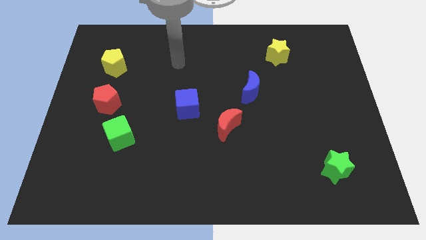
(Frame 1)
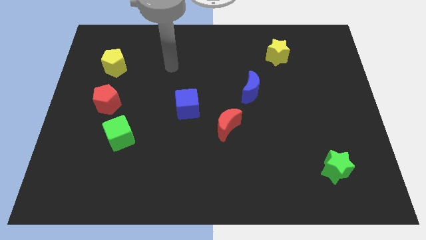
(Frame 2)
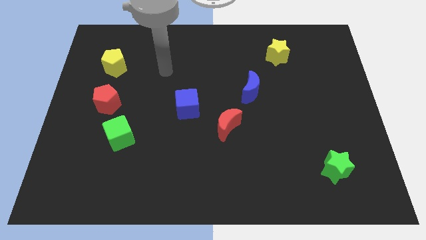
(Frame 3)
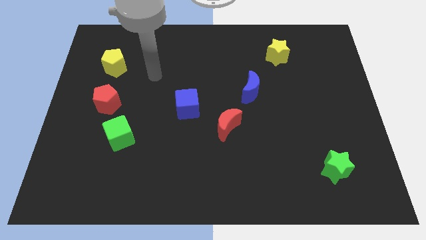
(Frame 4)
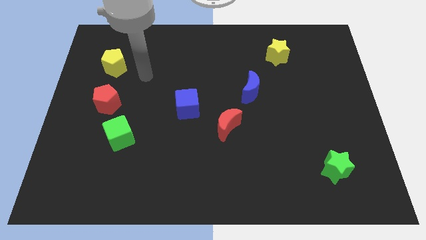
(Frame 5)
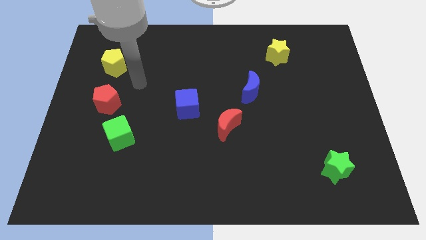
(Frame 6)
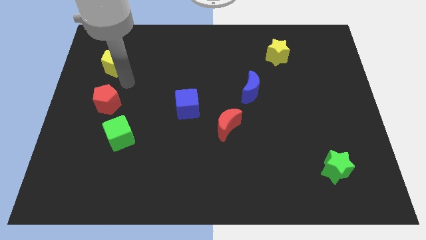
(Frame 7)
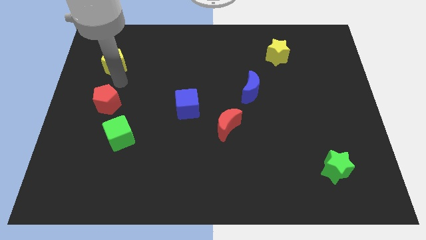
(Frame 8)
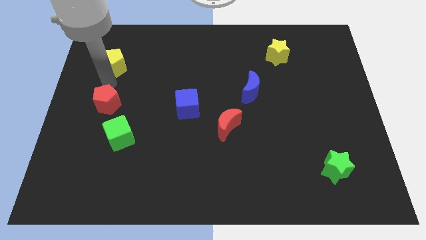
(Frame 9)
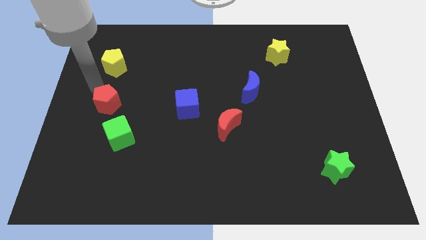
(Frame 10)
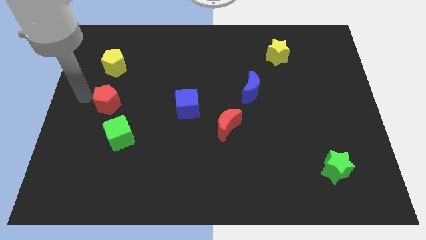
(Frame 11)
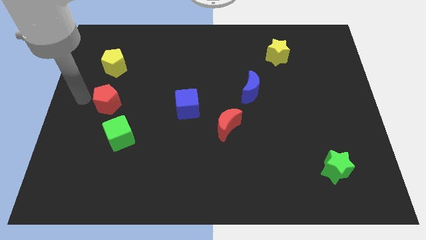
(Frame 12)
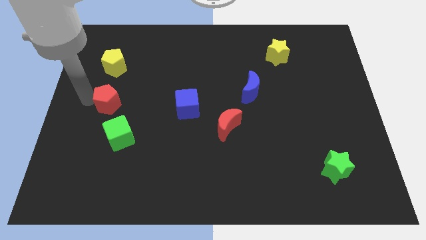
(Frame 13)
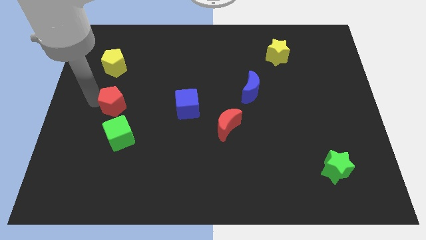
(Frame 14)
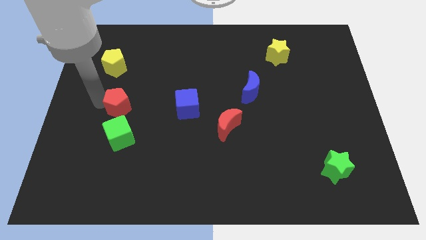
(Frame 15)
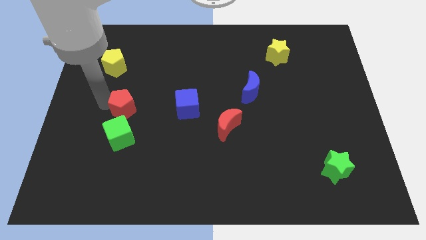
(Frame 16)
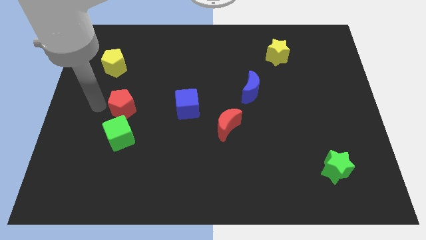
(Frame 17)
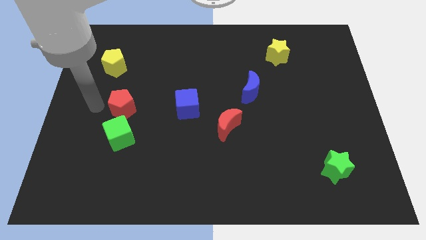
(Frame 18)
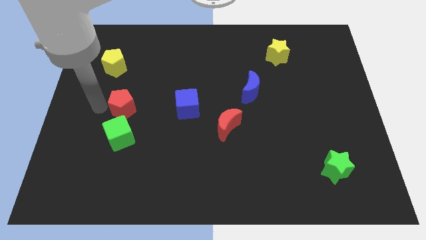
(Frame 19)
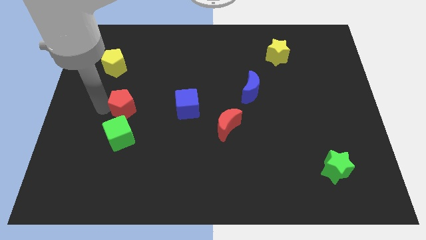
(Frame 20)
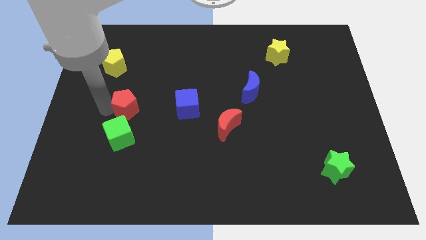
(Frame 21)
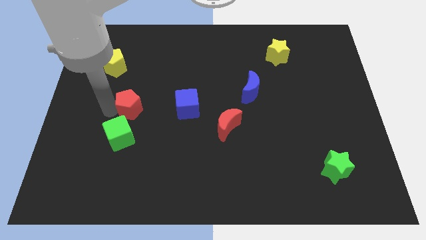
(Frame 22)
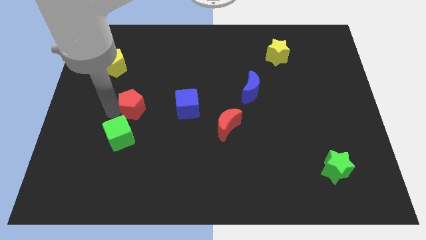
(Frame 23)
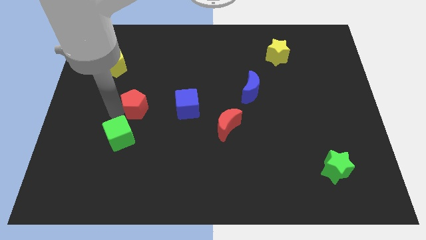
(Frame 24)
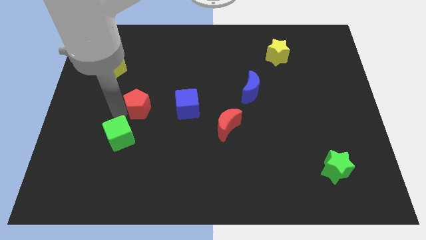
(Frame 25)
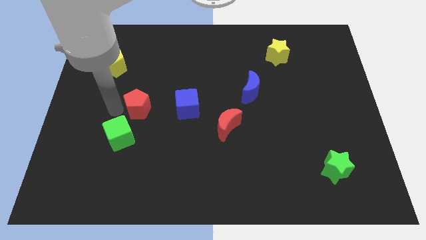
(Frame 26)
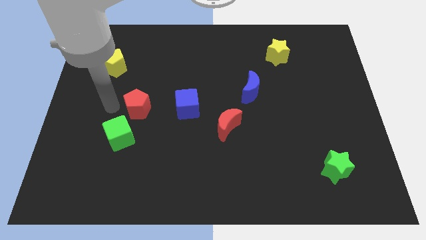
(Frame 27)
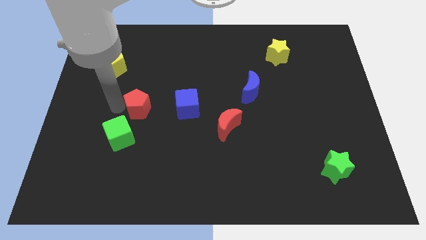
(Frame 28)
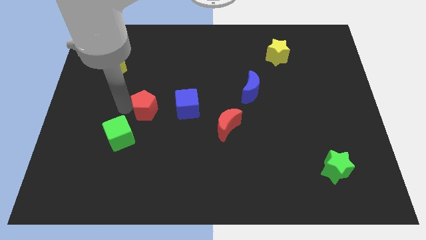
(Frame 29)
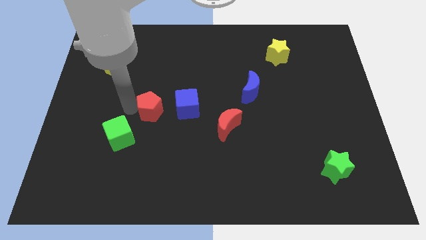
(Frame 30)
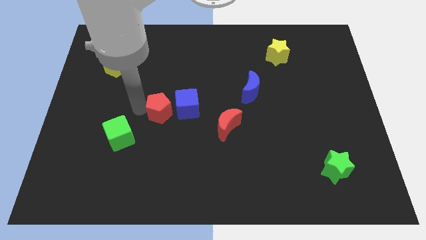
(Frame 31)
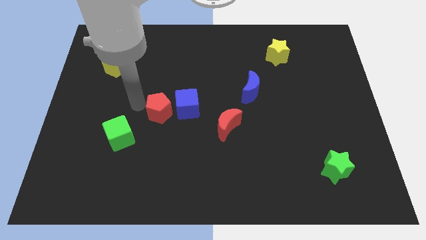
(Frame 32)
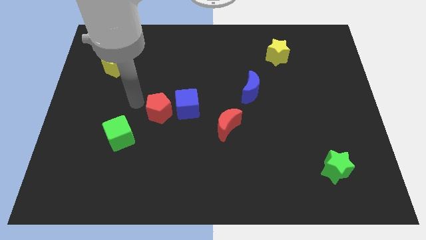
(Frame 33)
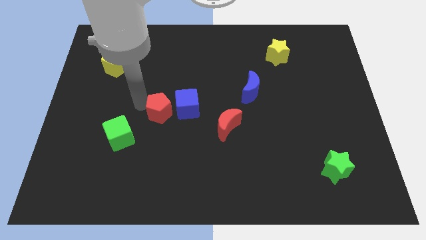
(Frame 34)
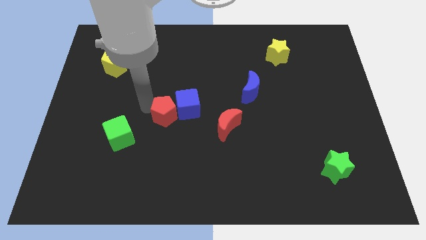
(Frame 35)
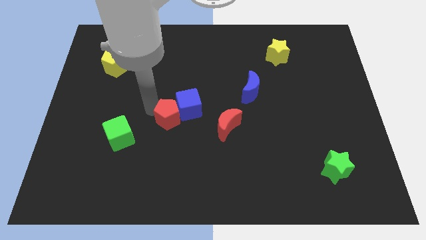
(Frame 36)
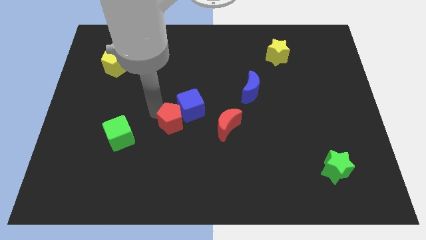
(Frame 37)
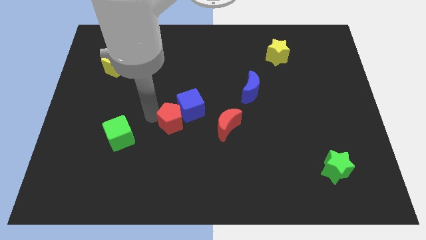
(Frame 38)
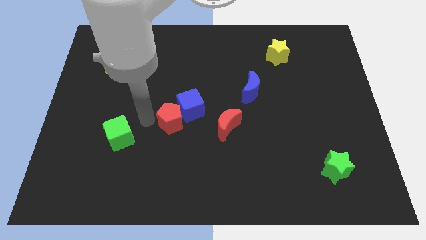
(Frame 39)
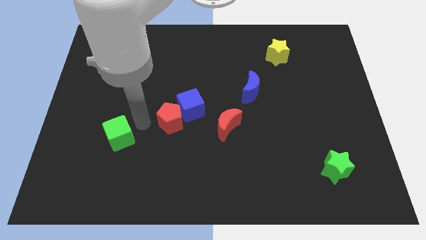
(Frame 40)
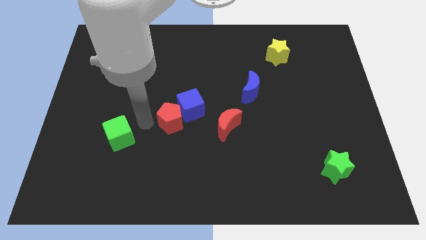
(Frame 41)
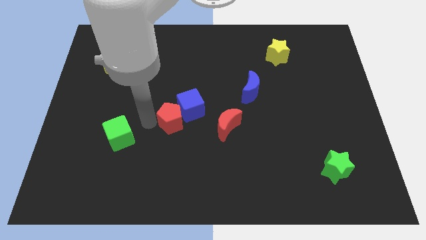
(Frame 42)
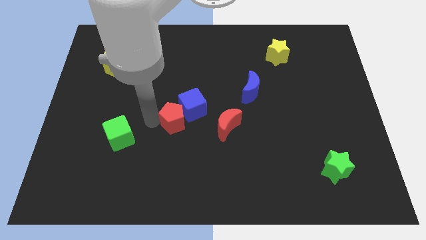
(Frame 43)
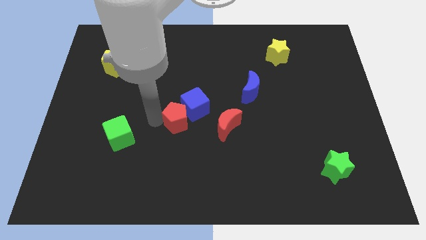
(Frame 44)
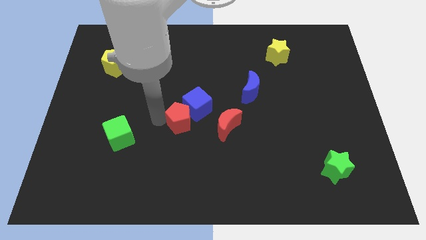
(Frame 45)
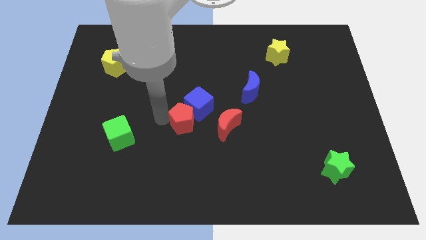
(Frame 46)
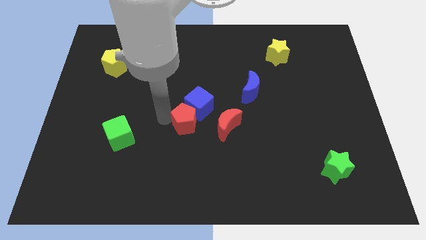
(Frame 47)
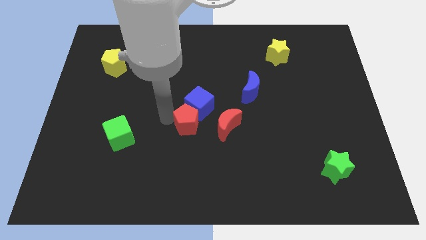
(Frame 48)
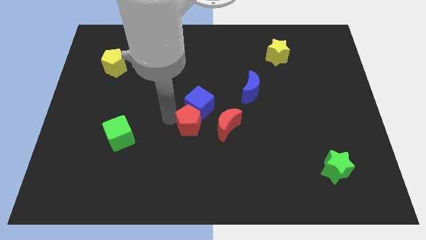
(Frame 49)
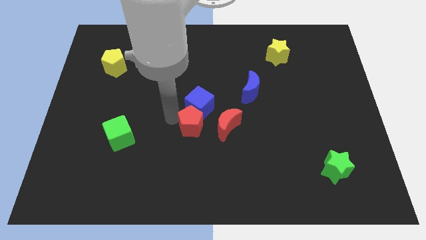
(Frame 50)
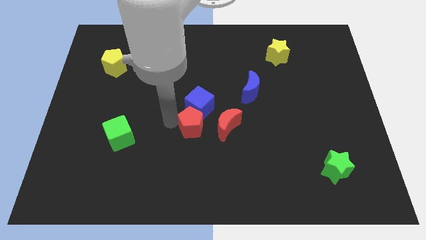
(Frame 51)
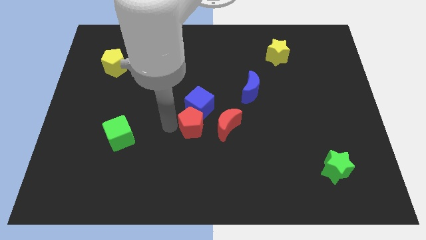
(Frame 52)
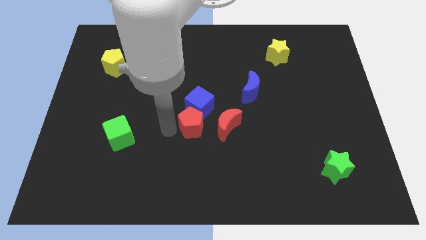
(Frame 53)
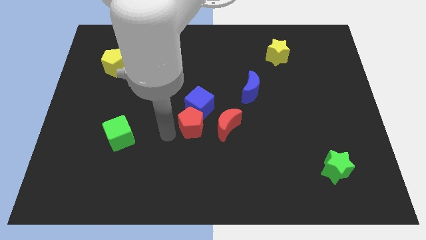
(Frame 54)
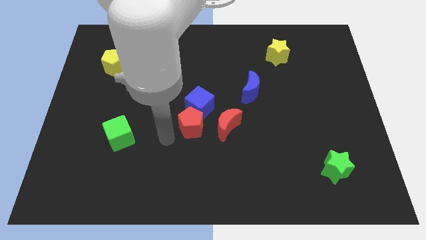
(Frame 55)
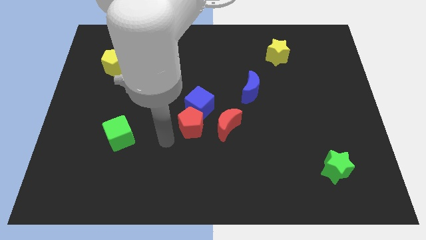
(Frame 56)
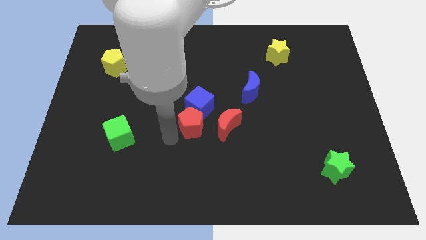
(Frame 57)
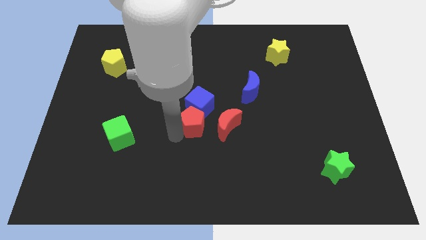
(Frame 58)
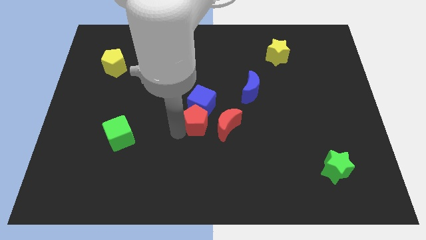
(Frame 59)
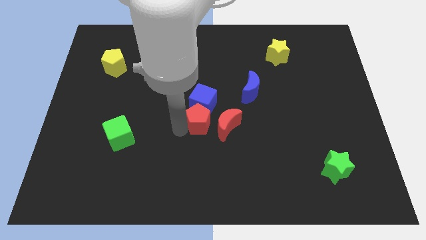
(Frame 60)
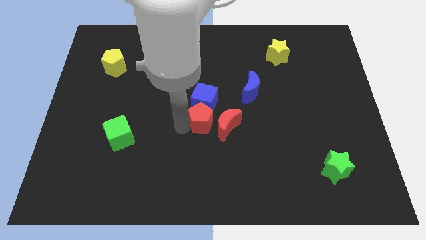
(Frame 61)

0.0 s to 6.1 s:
push the red pentagon close to the red moon

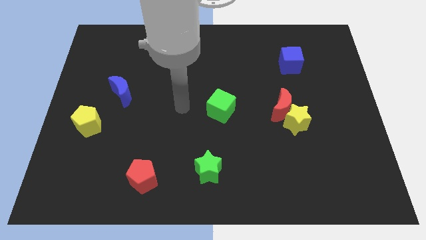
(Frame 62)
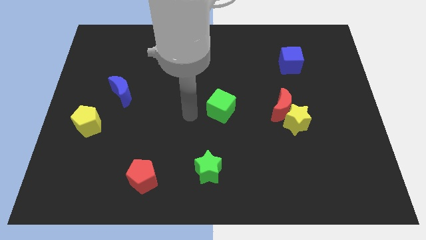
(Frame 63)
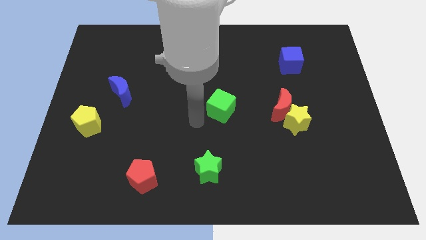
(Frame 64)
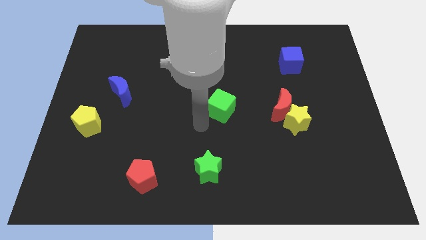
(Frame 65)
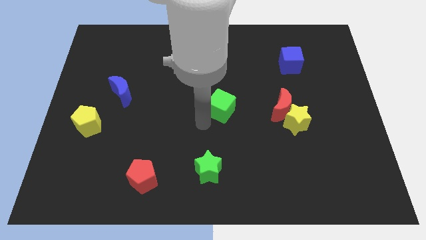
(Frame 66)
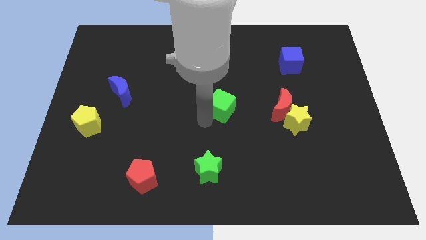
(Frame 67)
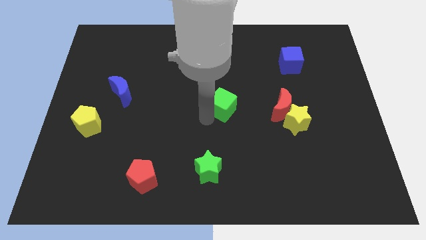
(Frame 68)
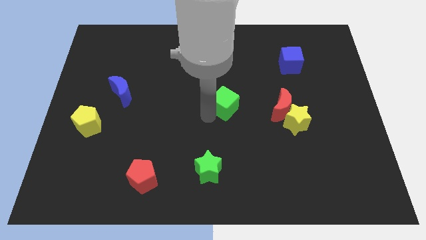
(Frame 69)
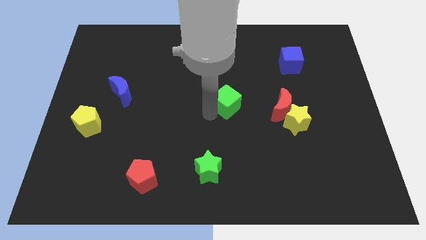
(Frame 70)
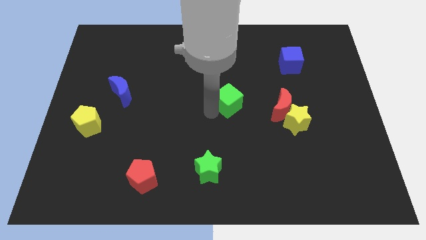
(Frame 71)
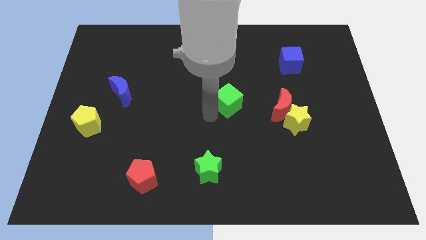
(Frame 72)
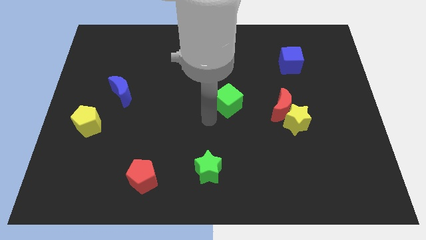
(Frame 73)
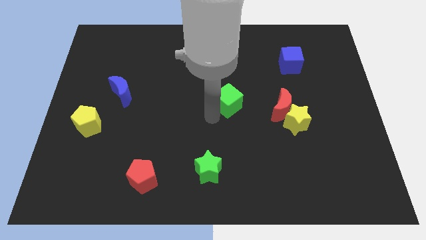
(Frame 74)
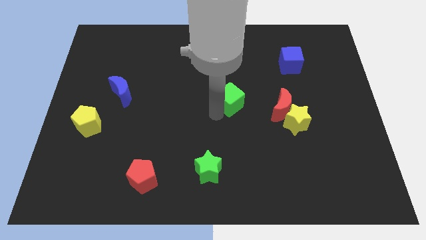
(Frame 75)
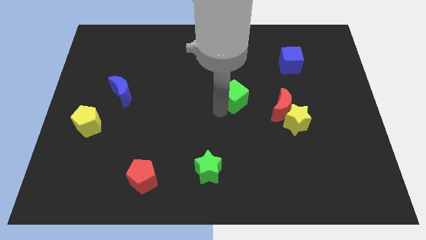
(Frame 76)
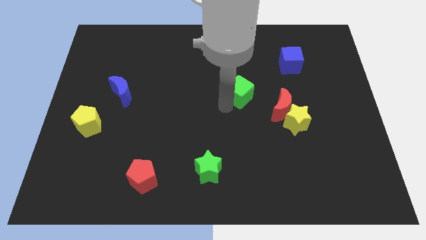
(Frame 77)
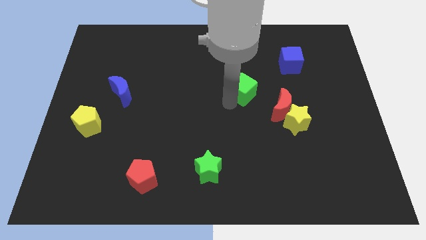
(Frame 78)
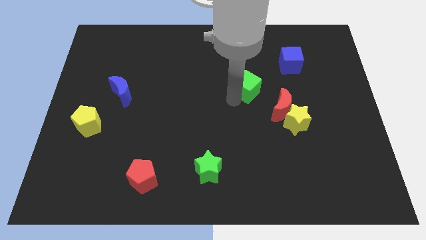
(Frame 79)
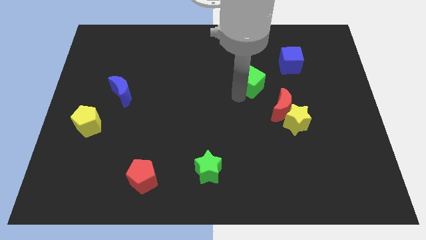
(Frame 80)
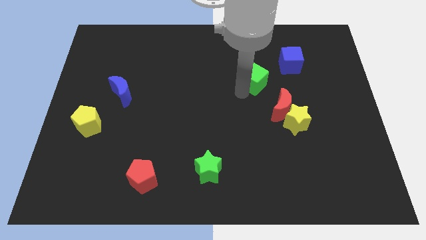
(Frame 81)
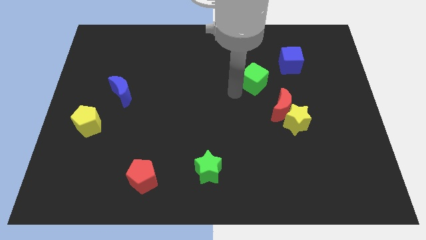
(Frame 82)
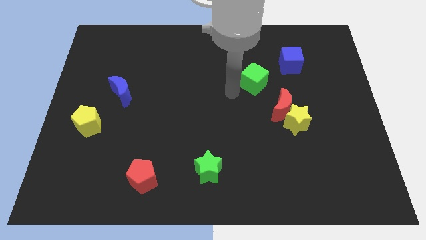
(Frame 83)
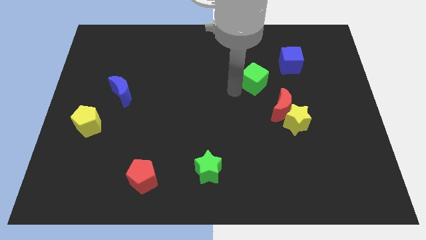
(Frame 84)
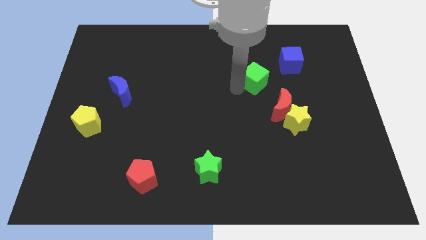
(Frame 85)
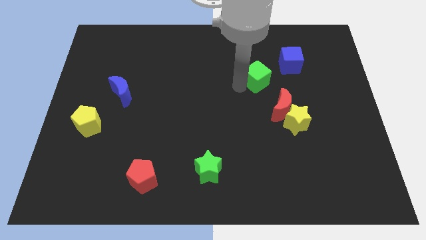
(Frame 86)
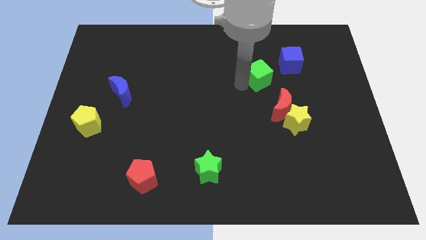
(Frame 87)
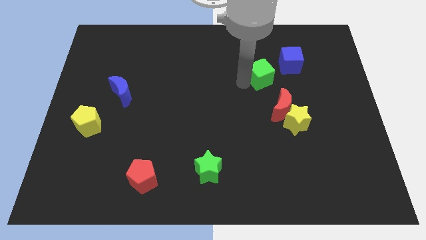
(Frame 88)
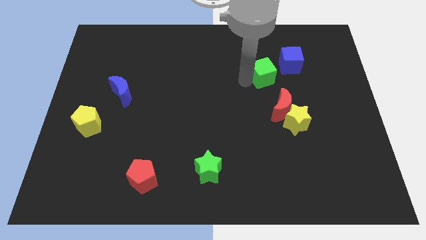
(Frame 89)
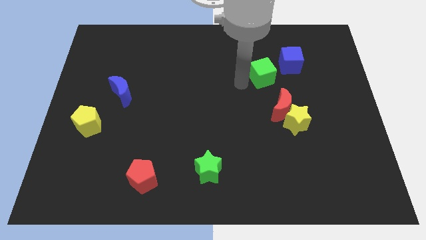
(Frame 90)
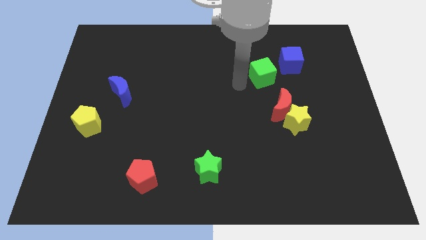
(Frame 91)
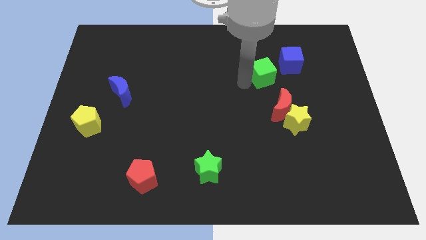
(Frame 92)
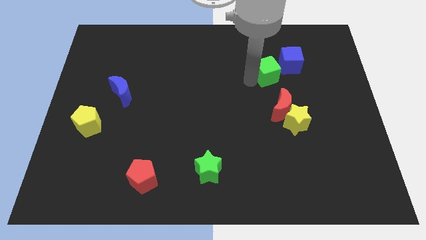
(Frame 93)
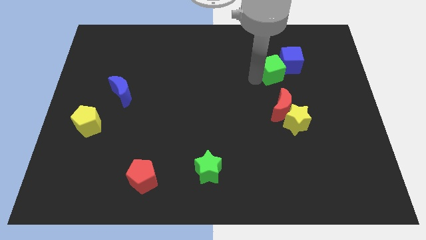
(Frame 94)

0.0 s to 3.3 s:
move the green cube to the blue cube
